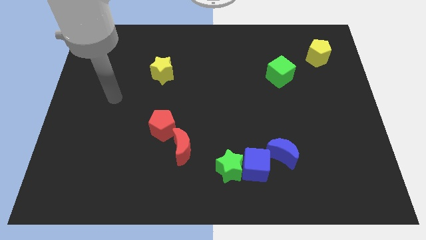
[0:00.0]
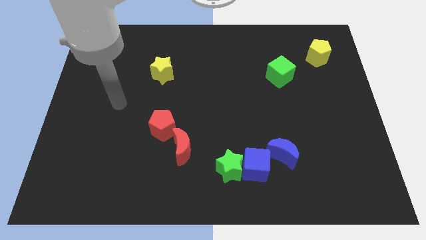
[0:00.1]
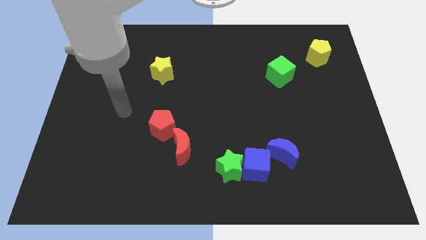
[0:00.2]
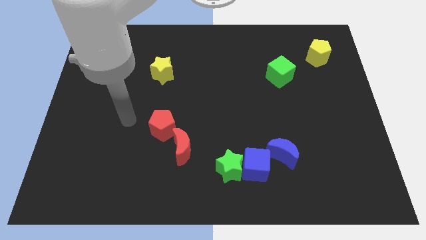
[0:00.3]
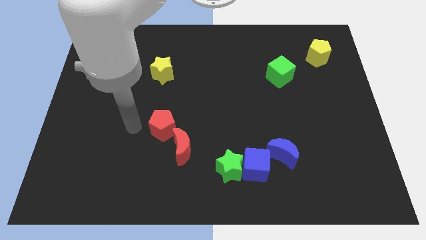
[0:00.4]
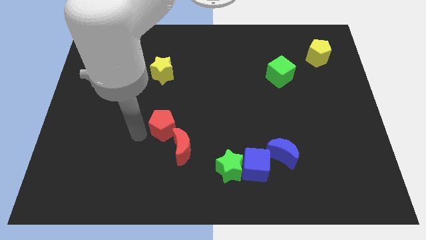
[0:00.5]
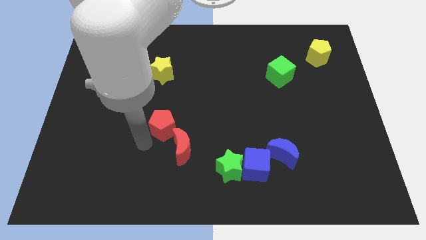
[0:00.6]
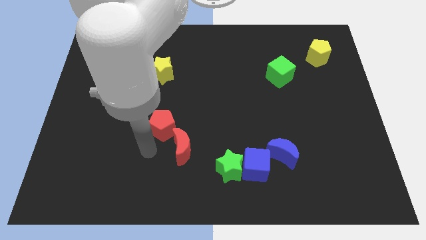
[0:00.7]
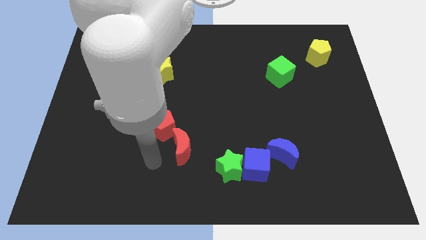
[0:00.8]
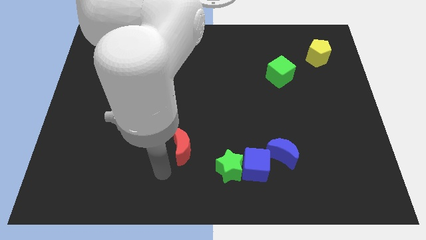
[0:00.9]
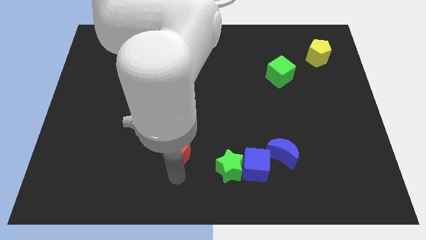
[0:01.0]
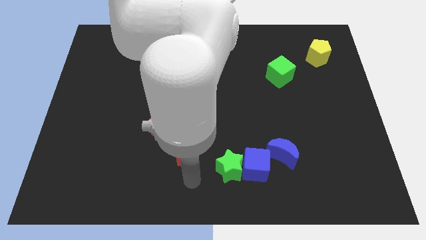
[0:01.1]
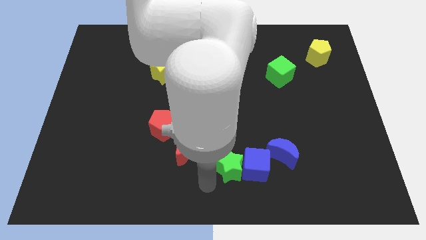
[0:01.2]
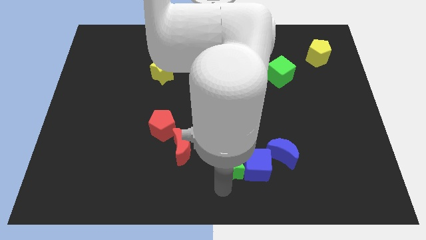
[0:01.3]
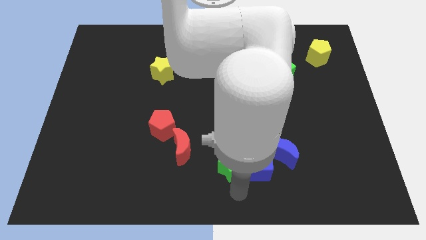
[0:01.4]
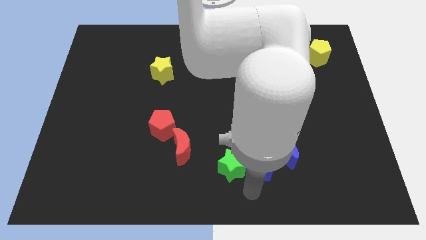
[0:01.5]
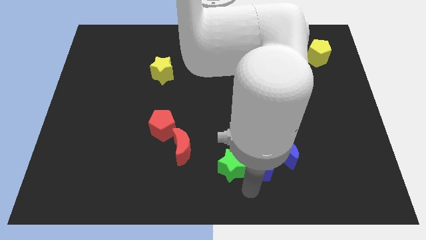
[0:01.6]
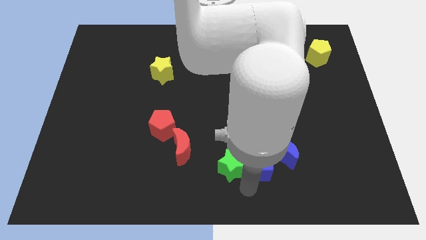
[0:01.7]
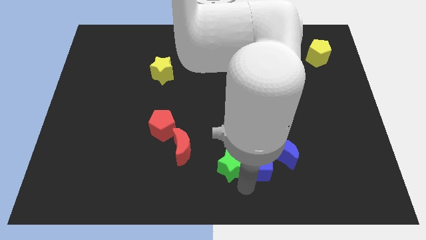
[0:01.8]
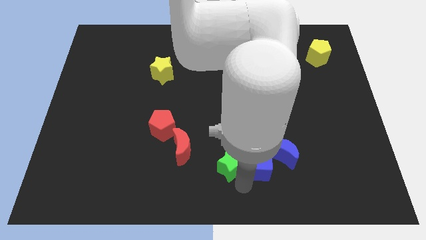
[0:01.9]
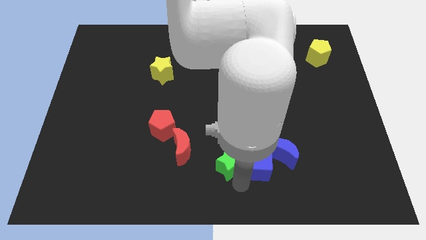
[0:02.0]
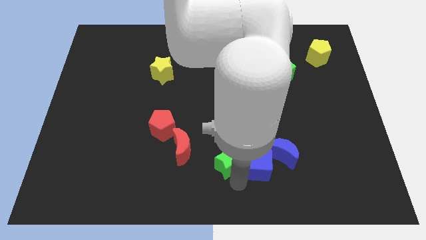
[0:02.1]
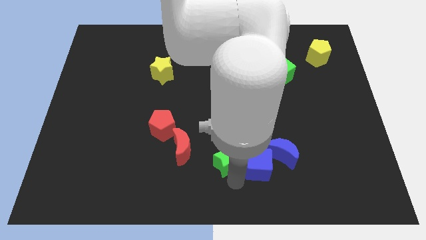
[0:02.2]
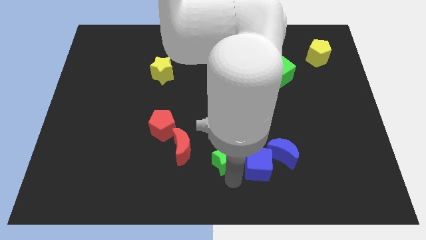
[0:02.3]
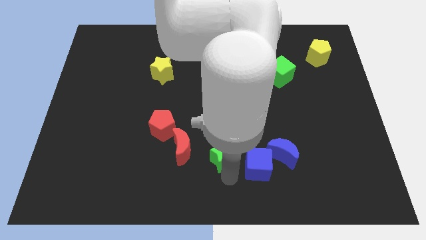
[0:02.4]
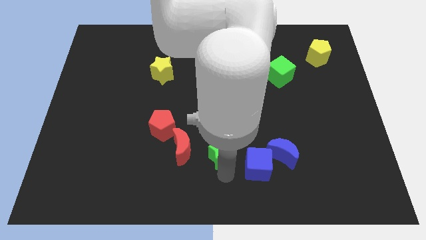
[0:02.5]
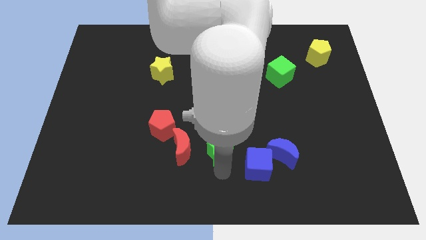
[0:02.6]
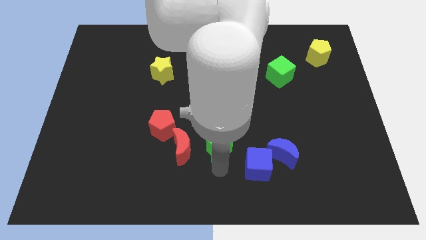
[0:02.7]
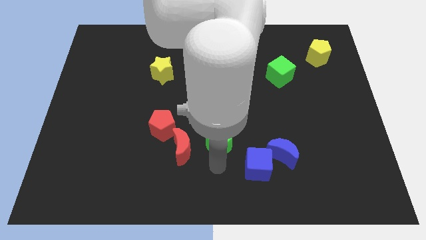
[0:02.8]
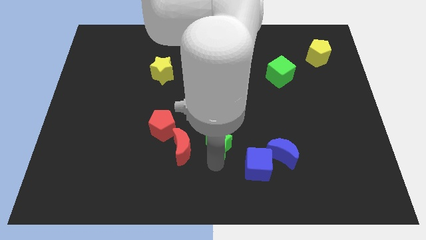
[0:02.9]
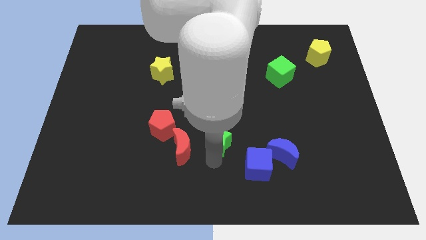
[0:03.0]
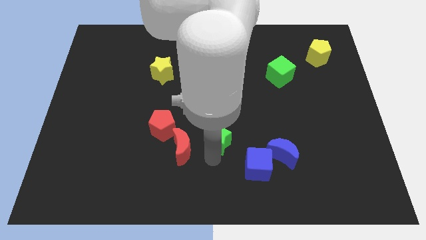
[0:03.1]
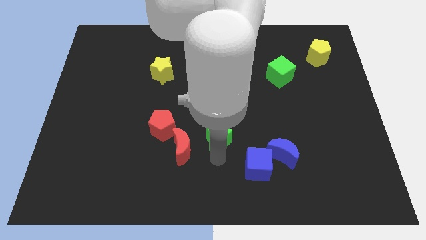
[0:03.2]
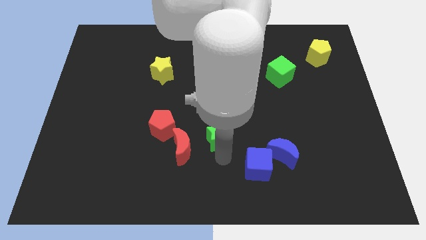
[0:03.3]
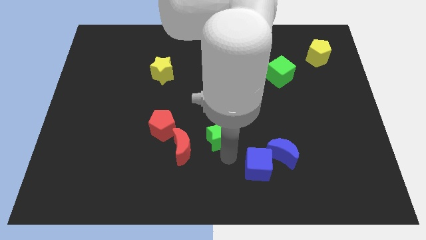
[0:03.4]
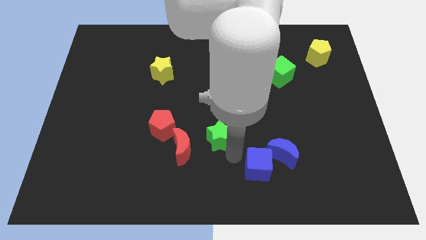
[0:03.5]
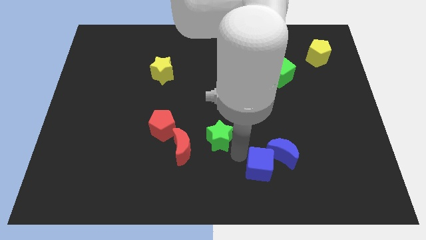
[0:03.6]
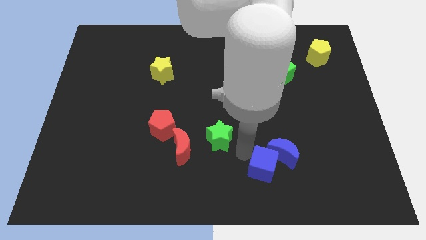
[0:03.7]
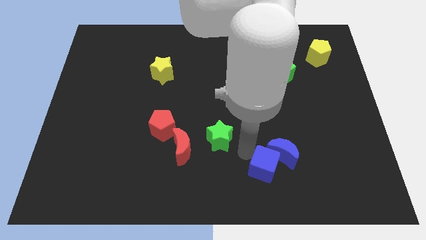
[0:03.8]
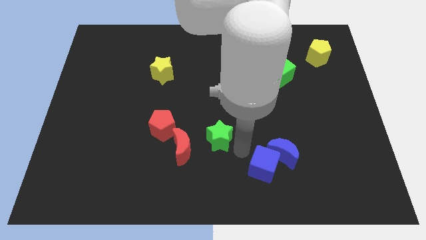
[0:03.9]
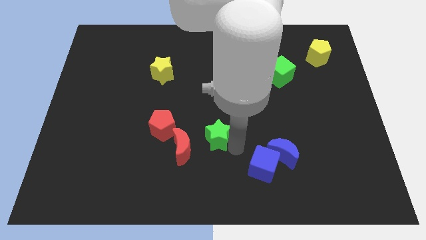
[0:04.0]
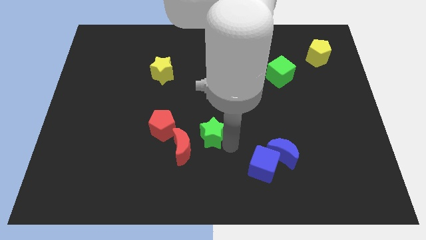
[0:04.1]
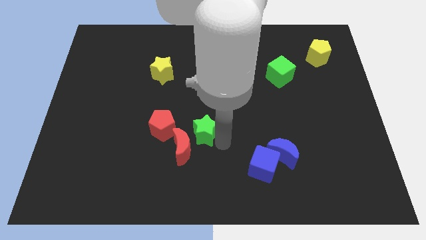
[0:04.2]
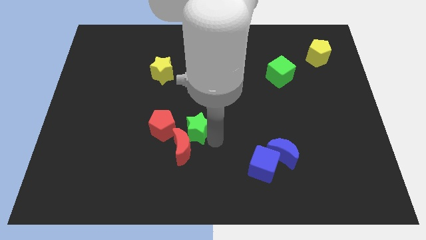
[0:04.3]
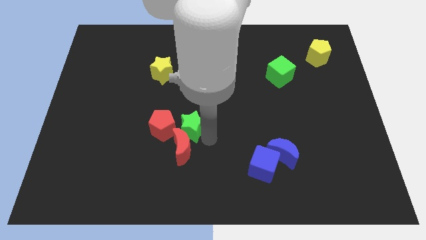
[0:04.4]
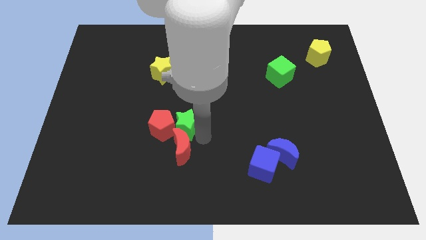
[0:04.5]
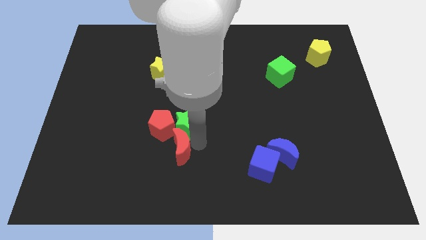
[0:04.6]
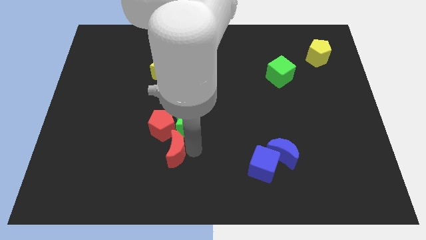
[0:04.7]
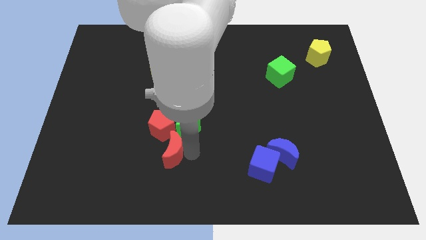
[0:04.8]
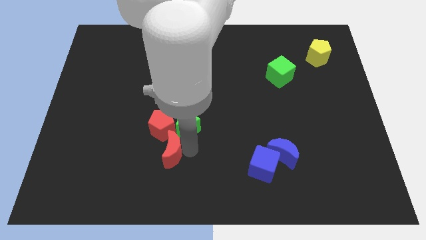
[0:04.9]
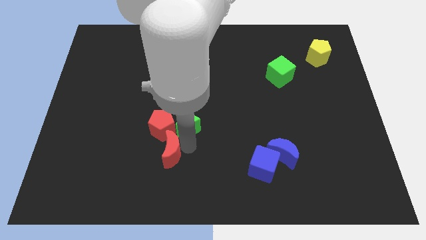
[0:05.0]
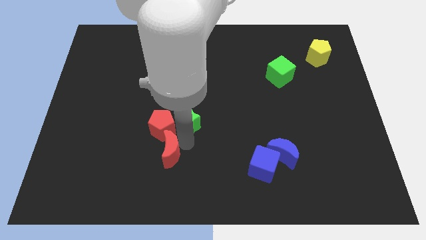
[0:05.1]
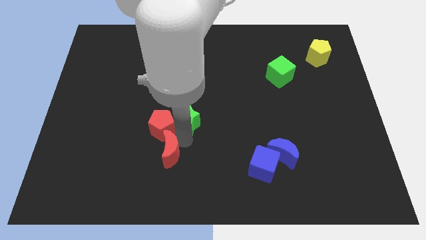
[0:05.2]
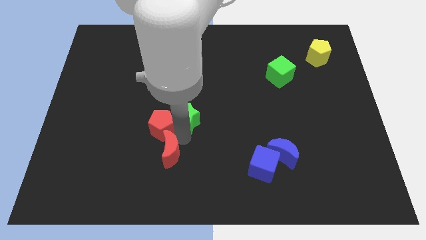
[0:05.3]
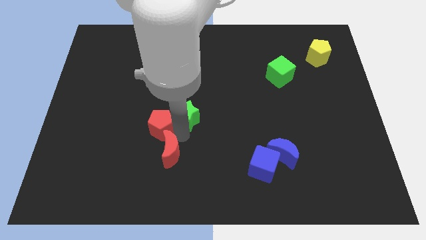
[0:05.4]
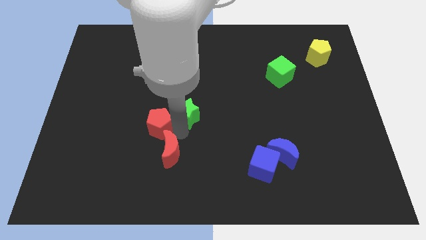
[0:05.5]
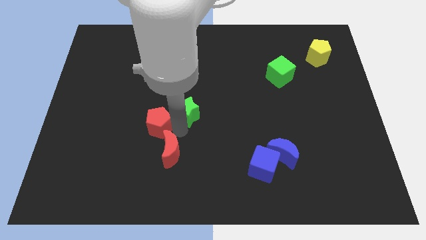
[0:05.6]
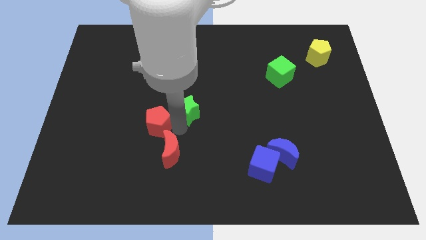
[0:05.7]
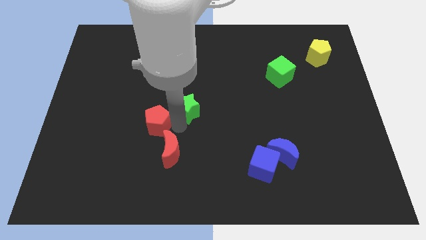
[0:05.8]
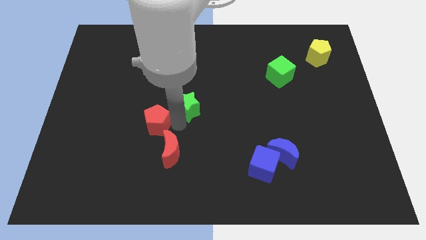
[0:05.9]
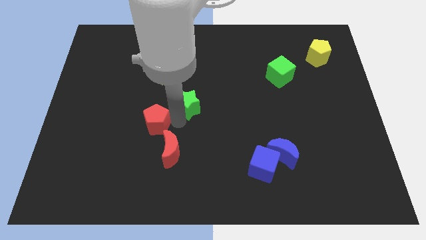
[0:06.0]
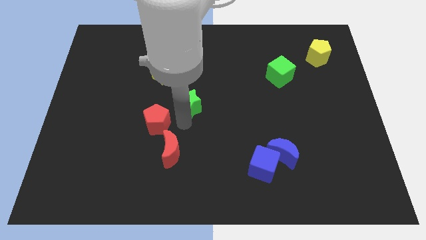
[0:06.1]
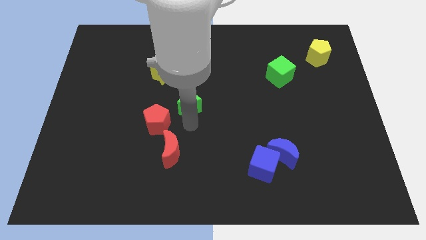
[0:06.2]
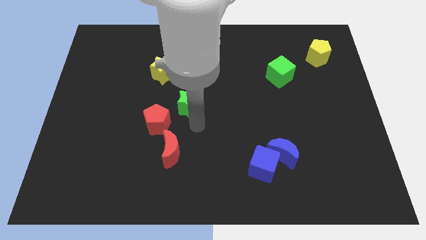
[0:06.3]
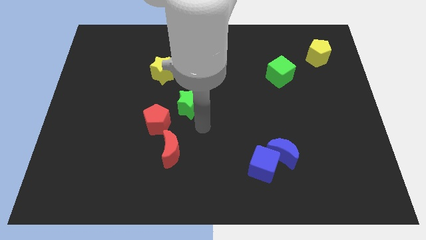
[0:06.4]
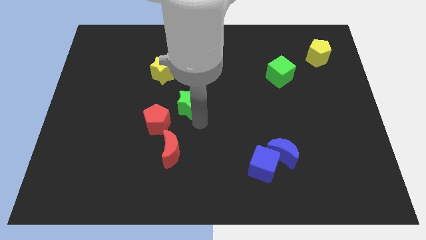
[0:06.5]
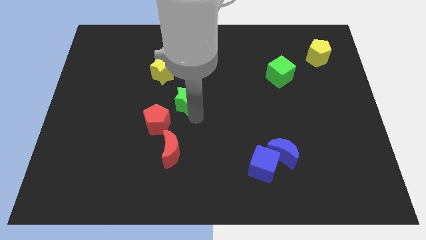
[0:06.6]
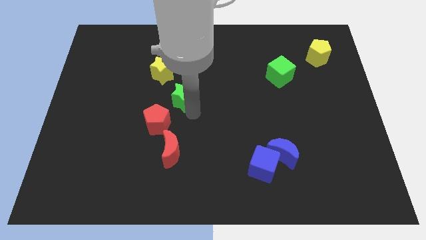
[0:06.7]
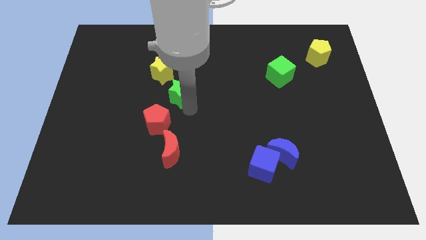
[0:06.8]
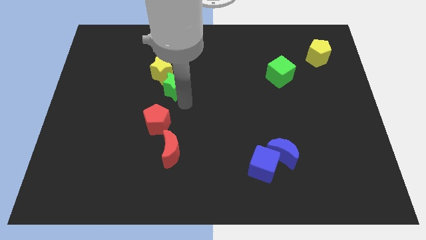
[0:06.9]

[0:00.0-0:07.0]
slide the green star next to the yellow star
